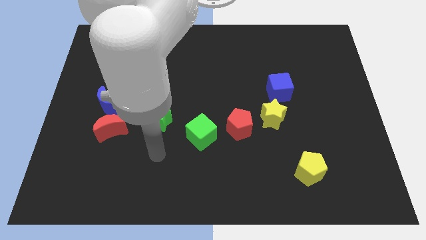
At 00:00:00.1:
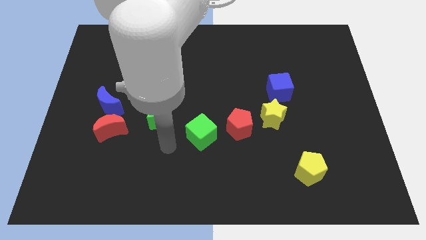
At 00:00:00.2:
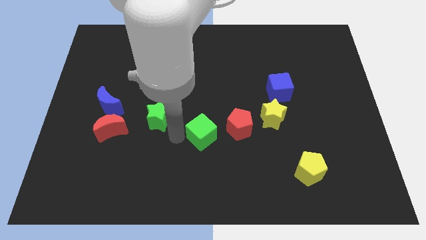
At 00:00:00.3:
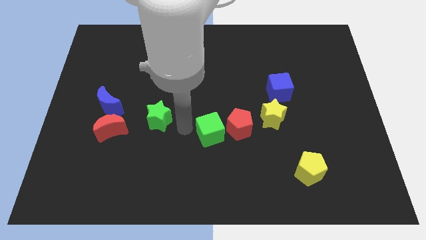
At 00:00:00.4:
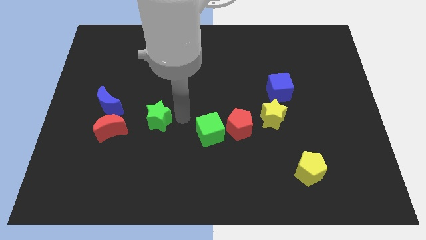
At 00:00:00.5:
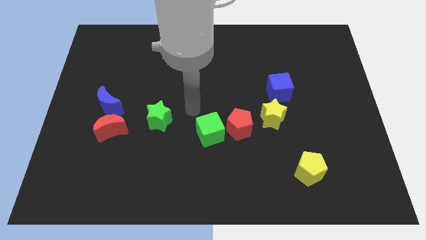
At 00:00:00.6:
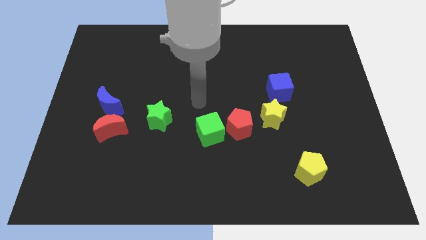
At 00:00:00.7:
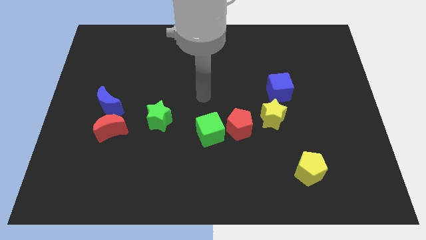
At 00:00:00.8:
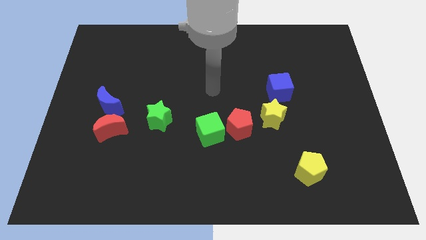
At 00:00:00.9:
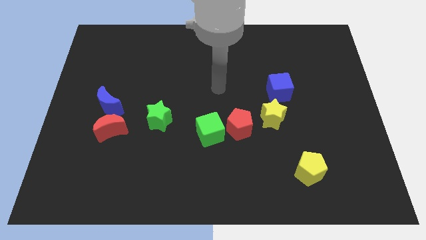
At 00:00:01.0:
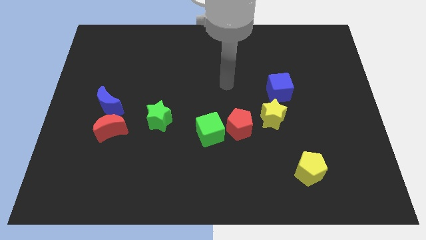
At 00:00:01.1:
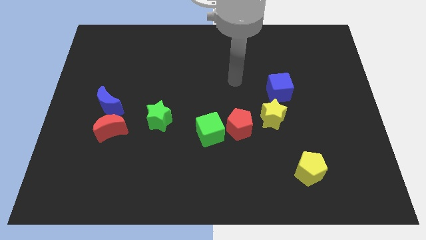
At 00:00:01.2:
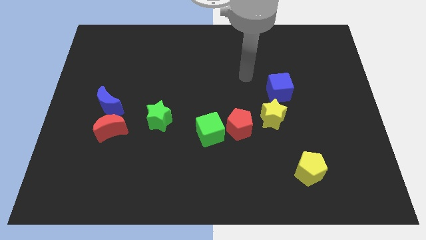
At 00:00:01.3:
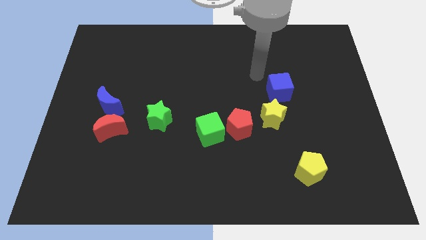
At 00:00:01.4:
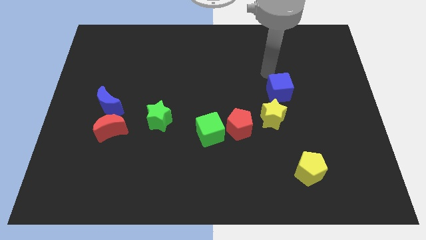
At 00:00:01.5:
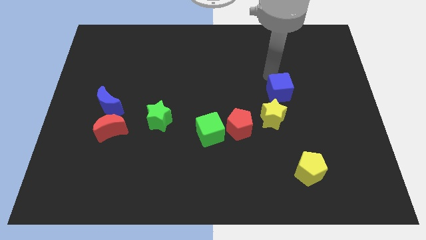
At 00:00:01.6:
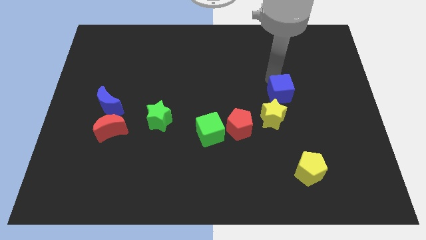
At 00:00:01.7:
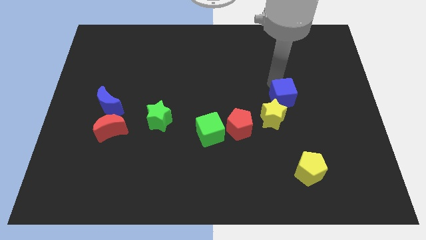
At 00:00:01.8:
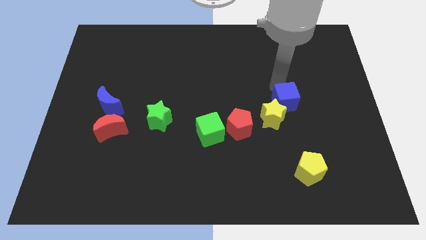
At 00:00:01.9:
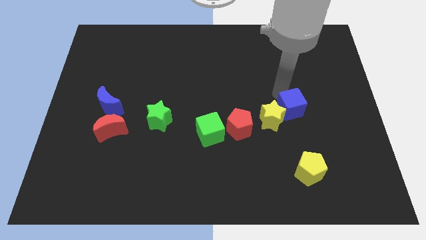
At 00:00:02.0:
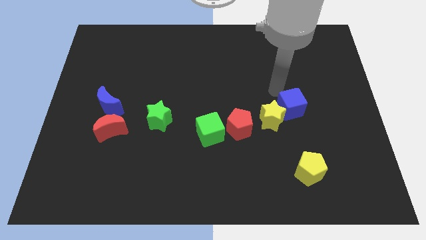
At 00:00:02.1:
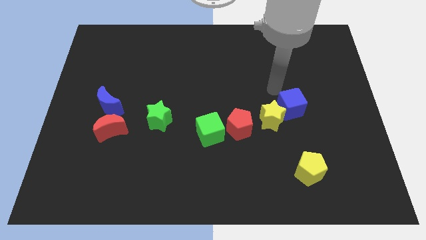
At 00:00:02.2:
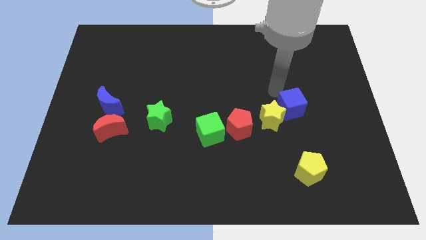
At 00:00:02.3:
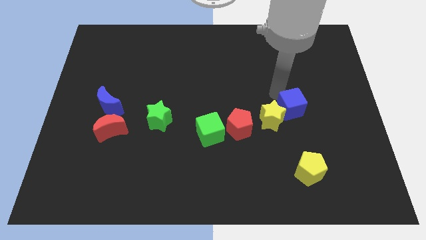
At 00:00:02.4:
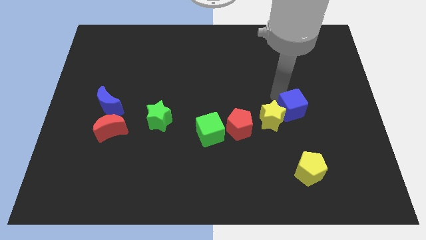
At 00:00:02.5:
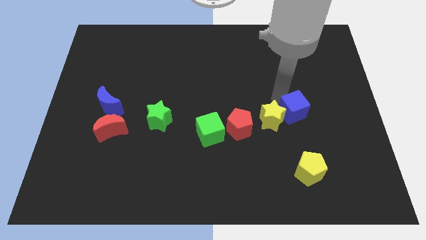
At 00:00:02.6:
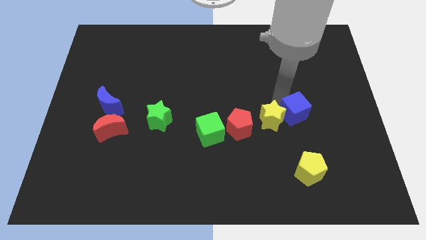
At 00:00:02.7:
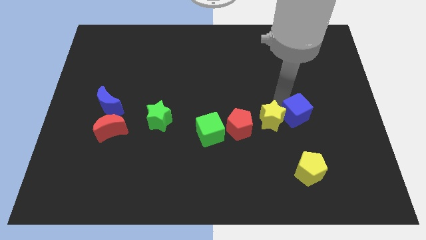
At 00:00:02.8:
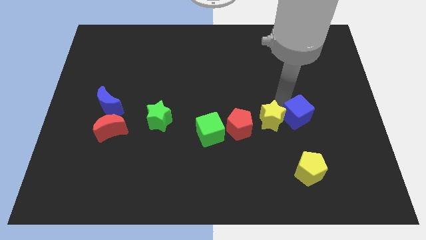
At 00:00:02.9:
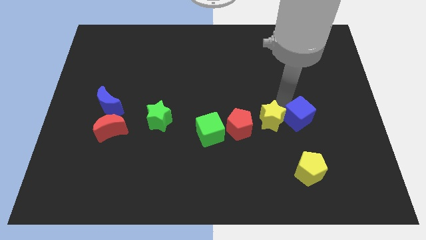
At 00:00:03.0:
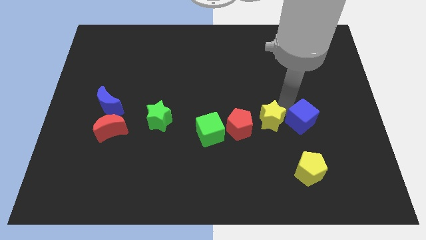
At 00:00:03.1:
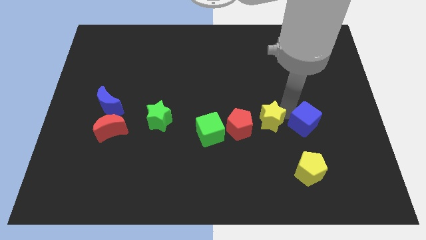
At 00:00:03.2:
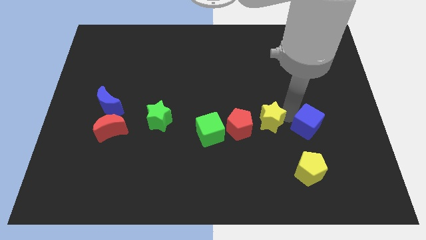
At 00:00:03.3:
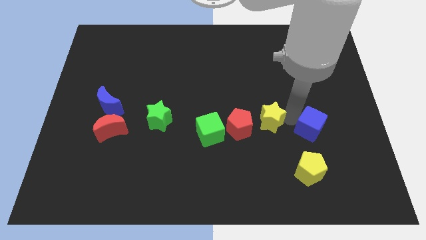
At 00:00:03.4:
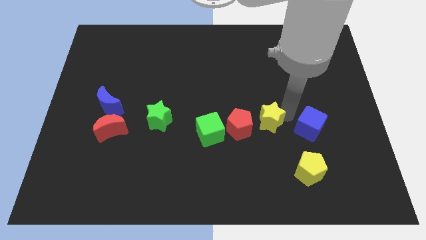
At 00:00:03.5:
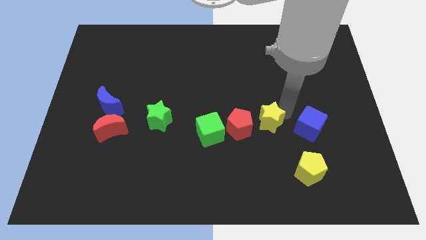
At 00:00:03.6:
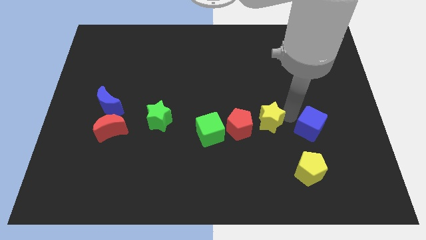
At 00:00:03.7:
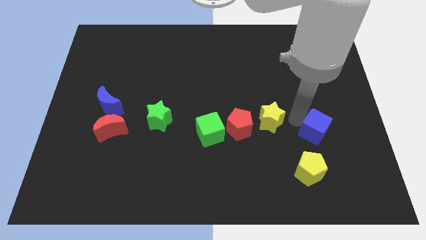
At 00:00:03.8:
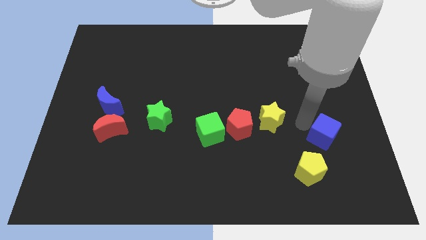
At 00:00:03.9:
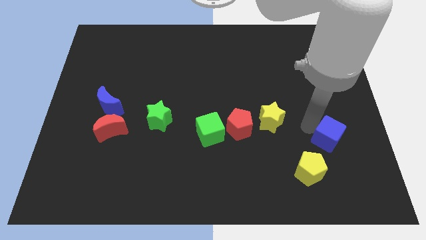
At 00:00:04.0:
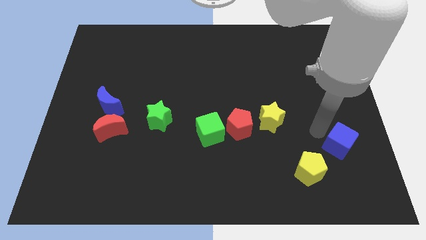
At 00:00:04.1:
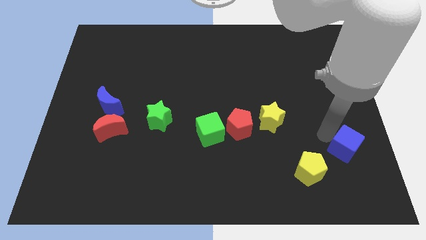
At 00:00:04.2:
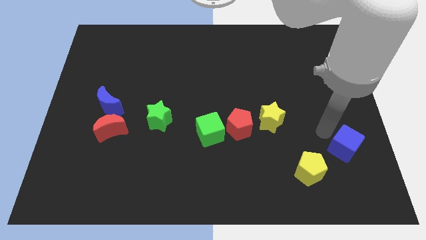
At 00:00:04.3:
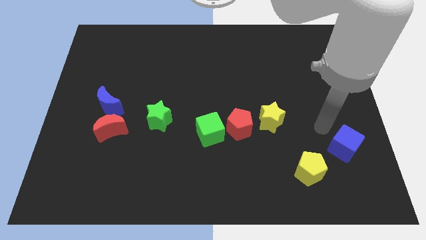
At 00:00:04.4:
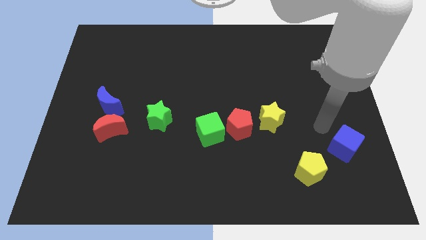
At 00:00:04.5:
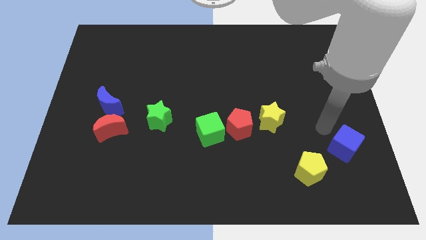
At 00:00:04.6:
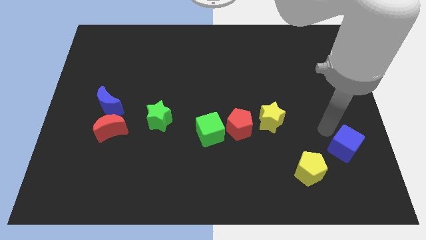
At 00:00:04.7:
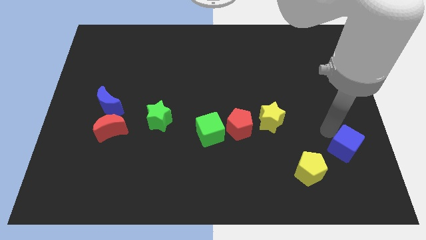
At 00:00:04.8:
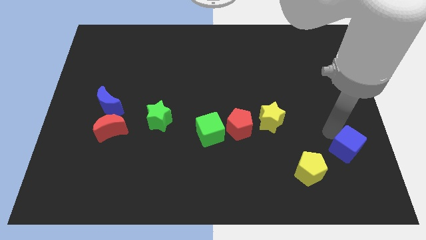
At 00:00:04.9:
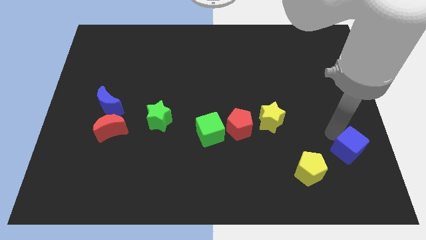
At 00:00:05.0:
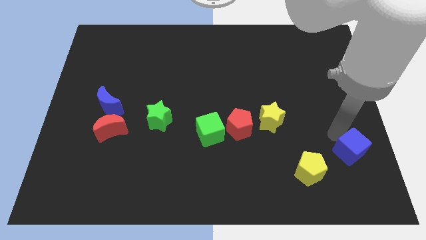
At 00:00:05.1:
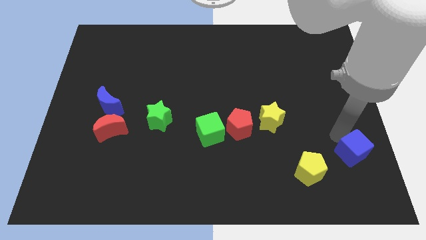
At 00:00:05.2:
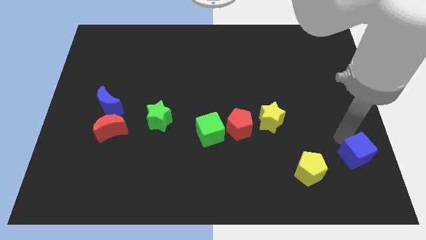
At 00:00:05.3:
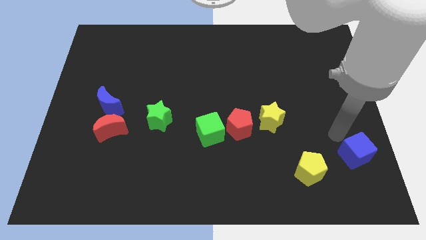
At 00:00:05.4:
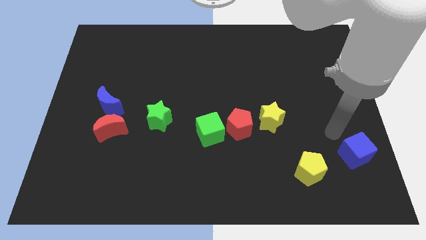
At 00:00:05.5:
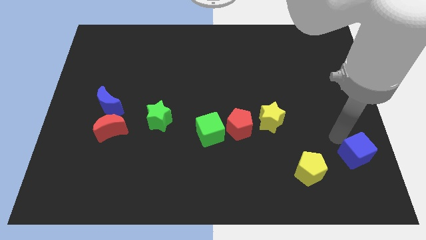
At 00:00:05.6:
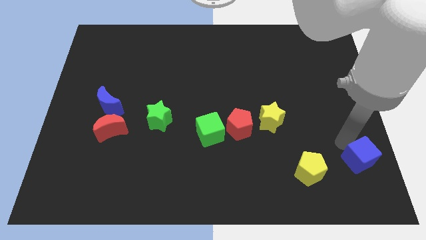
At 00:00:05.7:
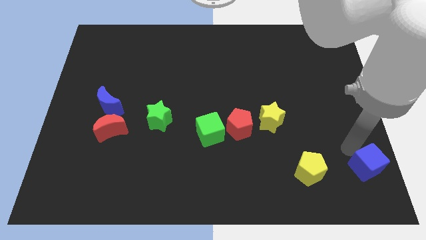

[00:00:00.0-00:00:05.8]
push the blue cube to the lower right corner
